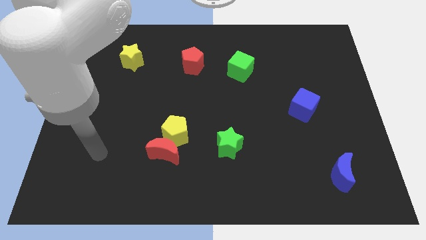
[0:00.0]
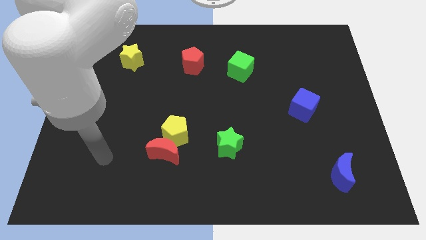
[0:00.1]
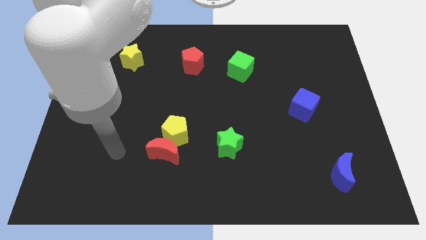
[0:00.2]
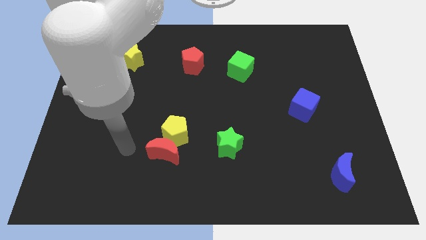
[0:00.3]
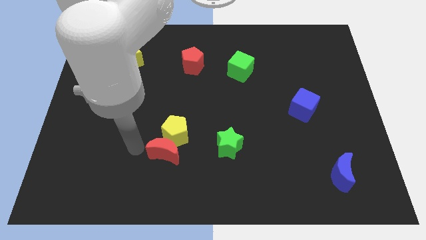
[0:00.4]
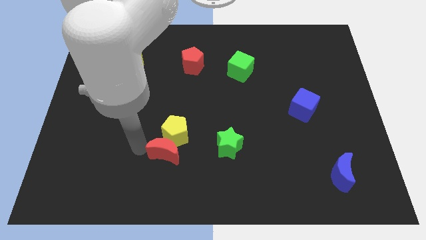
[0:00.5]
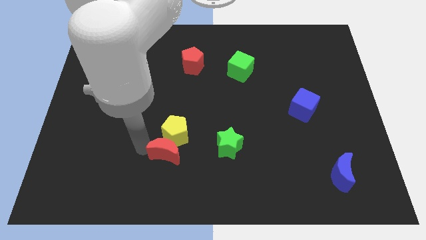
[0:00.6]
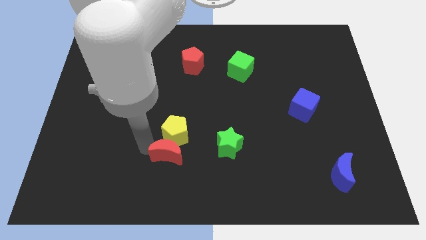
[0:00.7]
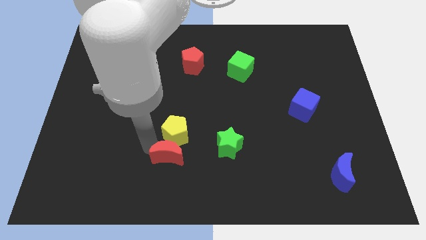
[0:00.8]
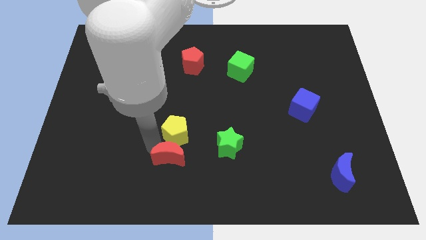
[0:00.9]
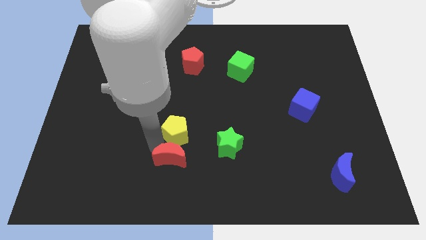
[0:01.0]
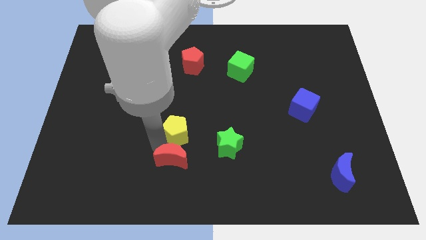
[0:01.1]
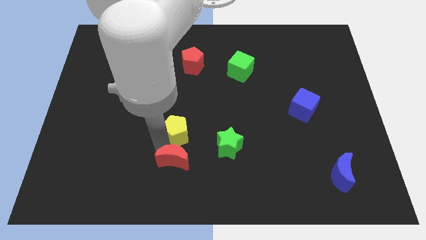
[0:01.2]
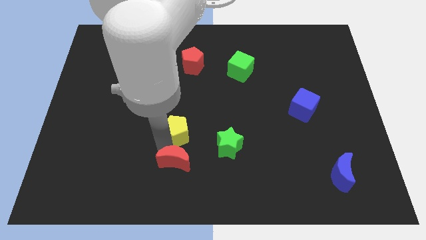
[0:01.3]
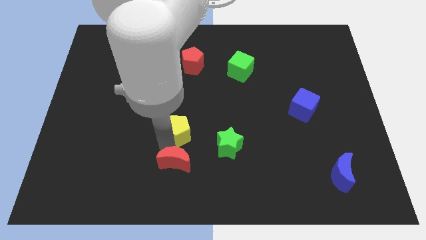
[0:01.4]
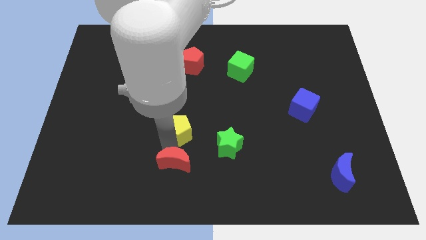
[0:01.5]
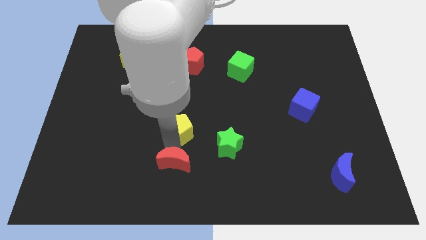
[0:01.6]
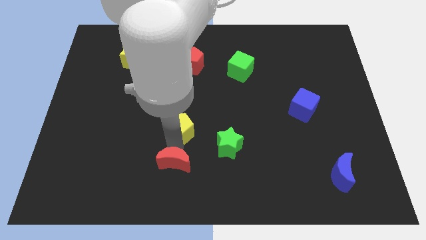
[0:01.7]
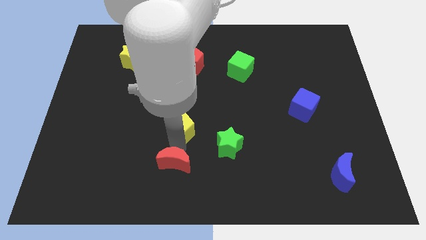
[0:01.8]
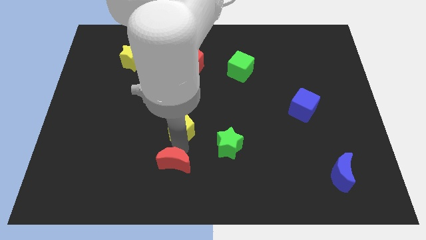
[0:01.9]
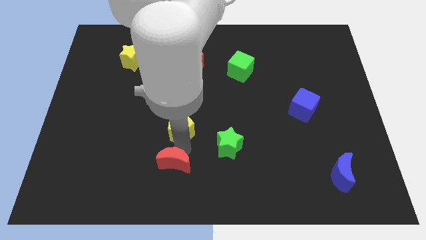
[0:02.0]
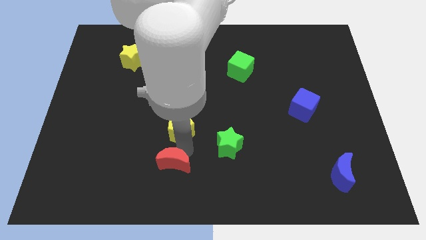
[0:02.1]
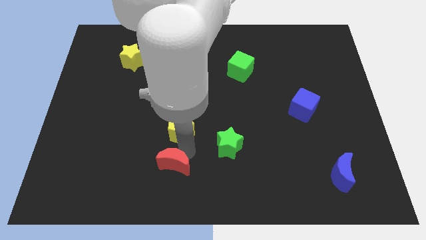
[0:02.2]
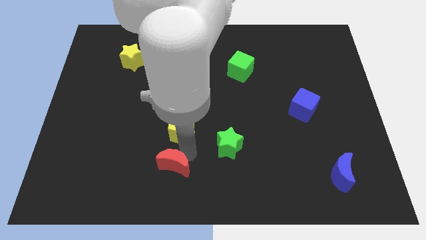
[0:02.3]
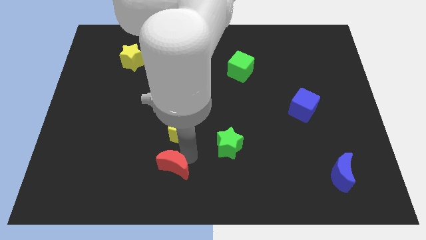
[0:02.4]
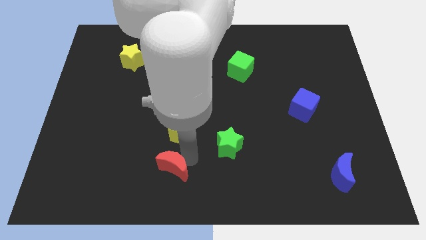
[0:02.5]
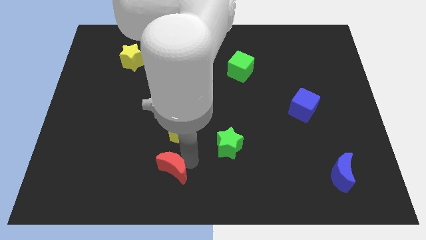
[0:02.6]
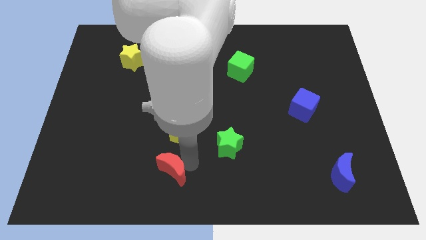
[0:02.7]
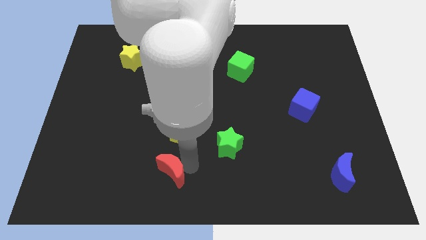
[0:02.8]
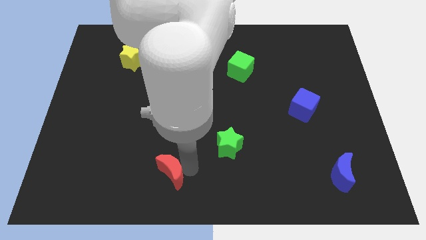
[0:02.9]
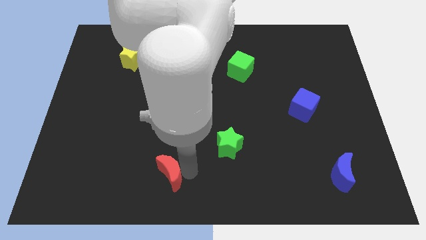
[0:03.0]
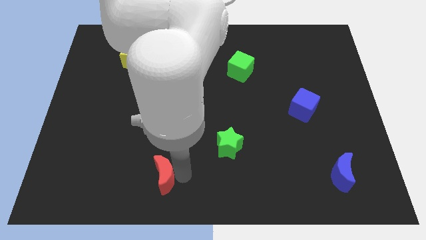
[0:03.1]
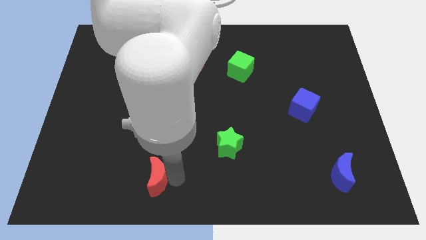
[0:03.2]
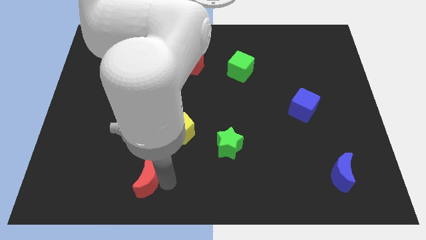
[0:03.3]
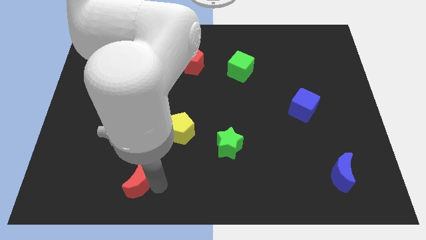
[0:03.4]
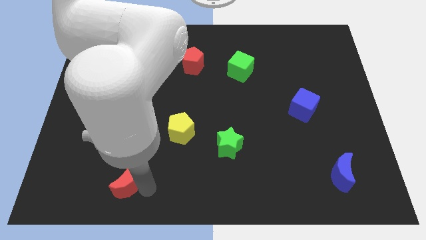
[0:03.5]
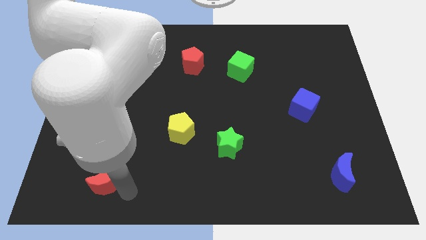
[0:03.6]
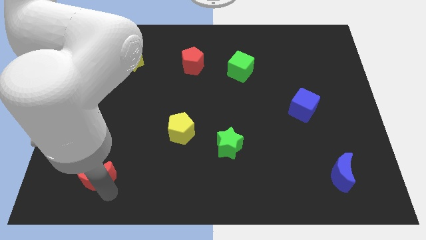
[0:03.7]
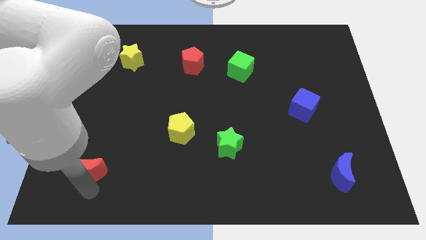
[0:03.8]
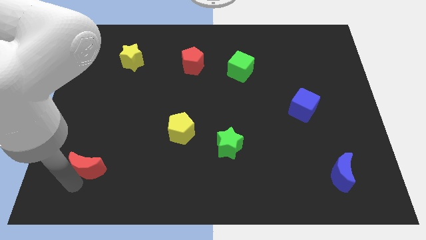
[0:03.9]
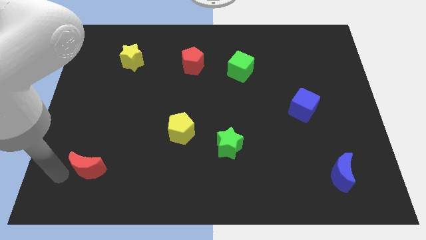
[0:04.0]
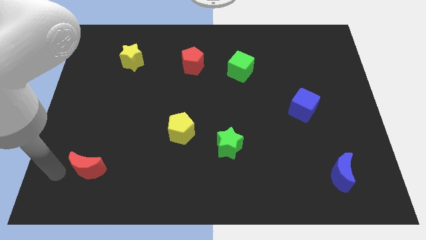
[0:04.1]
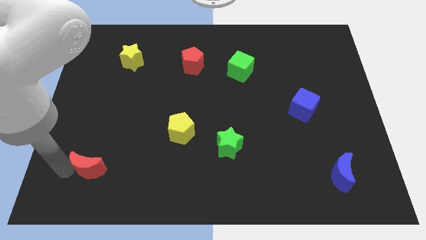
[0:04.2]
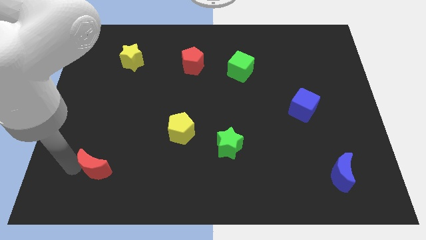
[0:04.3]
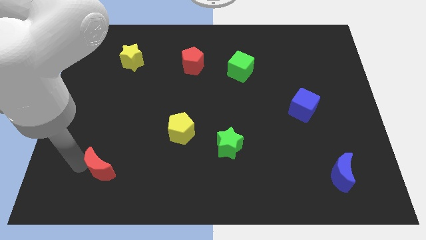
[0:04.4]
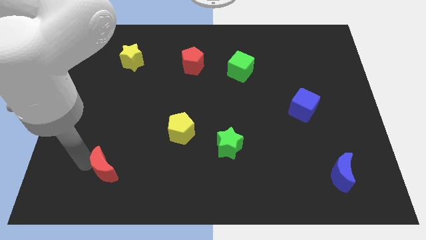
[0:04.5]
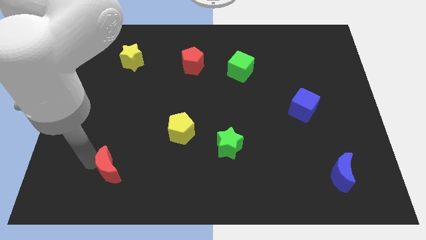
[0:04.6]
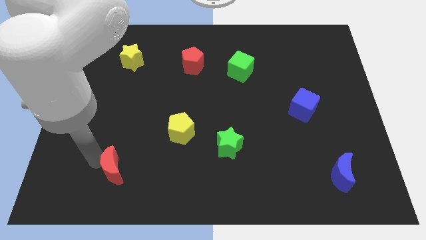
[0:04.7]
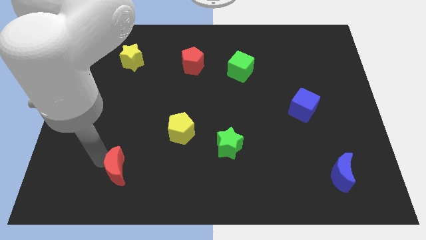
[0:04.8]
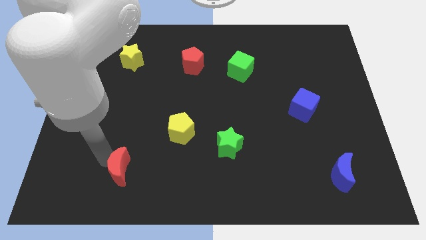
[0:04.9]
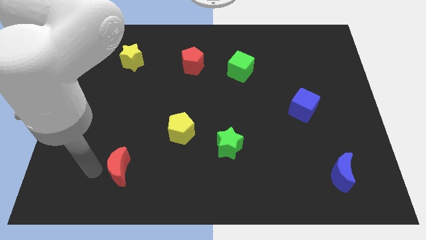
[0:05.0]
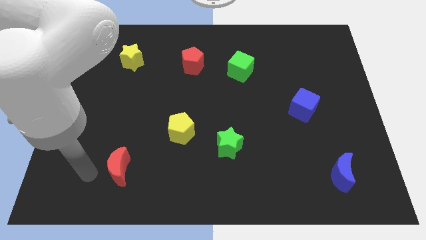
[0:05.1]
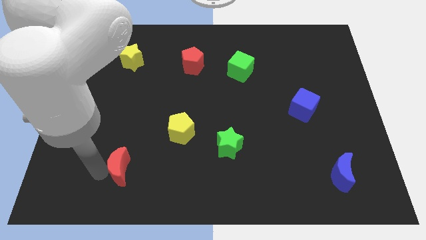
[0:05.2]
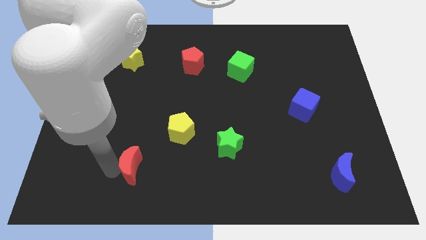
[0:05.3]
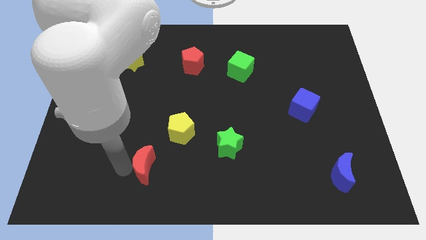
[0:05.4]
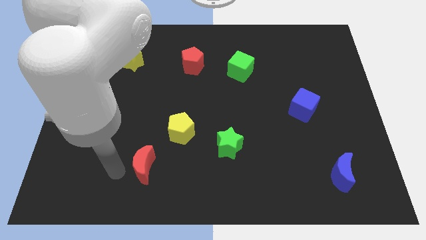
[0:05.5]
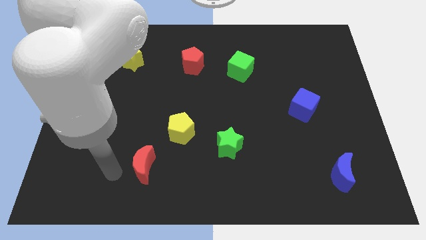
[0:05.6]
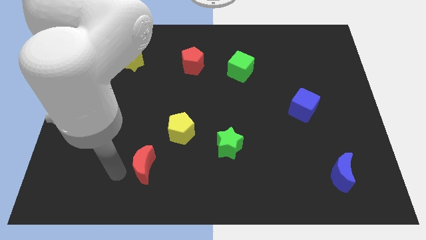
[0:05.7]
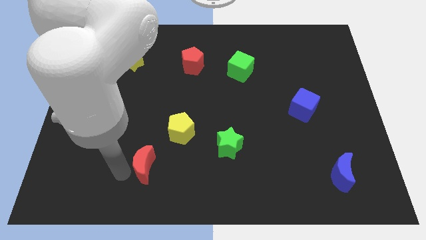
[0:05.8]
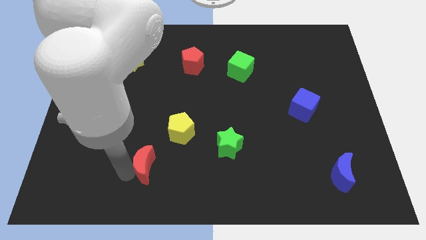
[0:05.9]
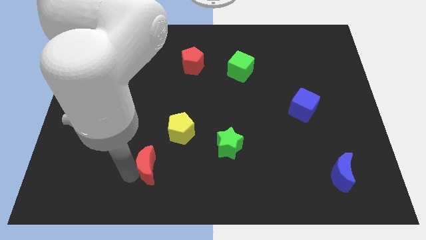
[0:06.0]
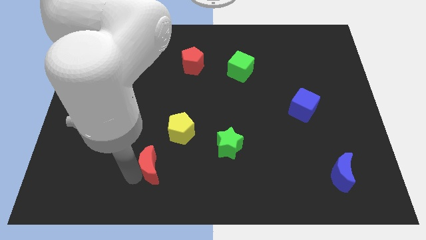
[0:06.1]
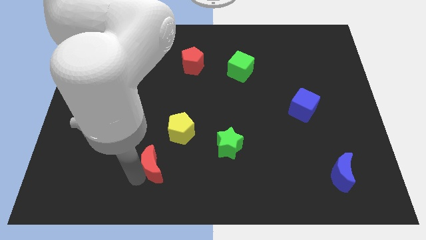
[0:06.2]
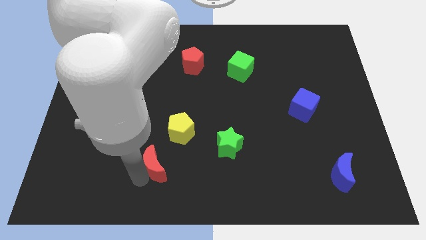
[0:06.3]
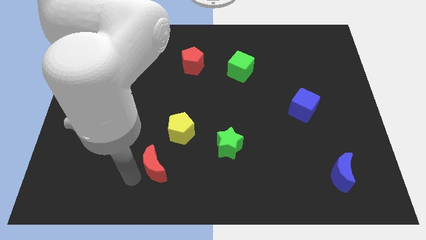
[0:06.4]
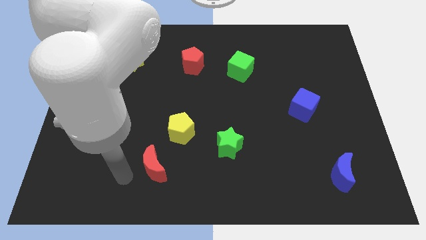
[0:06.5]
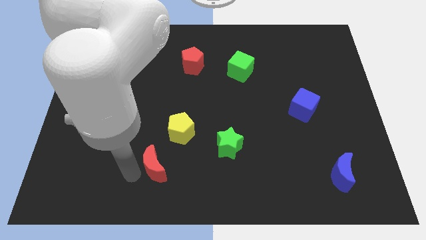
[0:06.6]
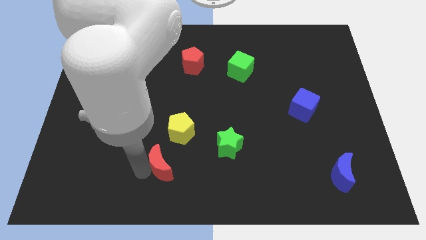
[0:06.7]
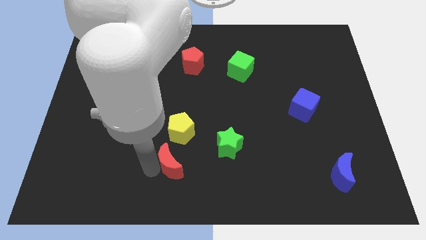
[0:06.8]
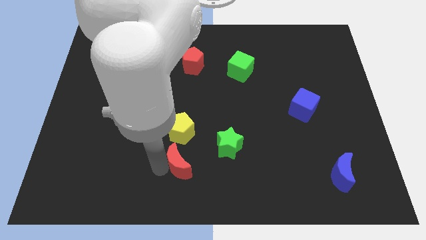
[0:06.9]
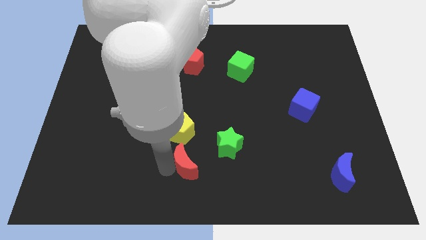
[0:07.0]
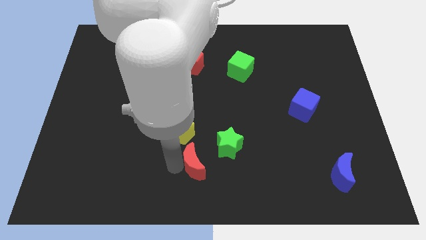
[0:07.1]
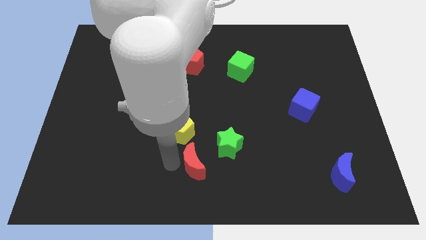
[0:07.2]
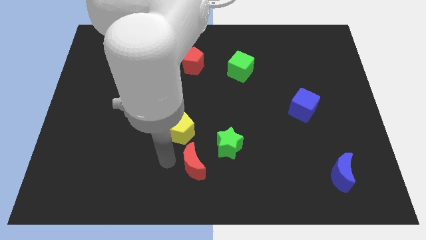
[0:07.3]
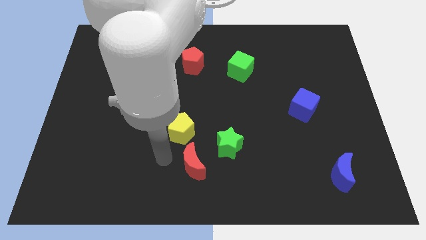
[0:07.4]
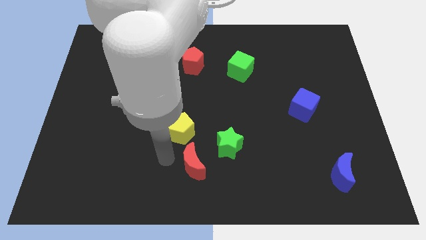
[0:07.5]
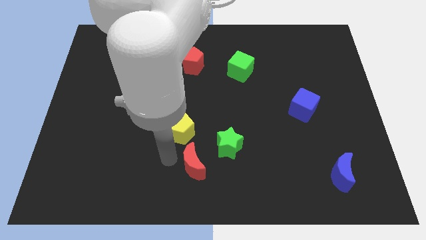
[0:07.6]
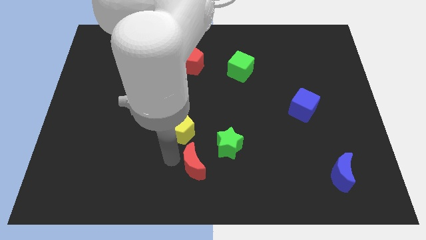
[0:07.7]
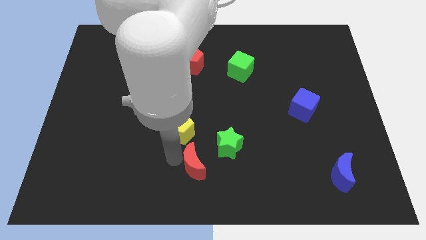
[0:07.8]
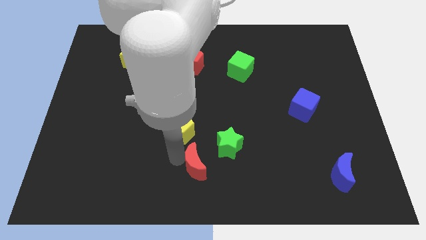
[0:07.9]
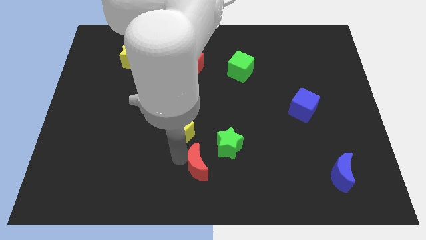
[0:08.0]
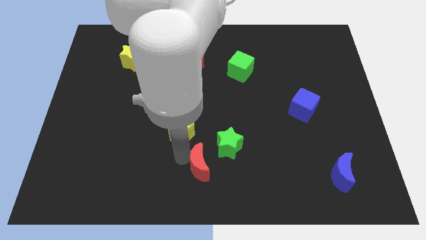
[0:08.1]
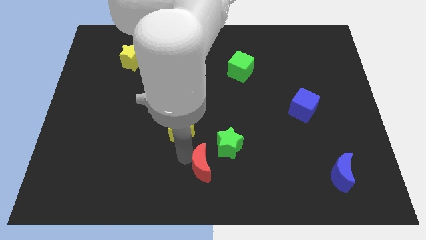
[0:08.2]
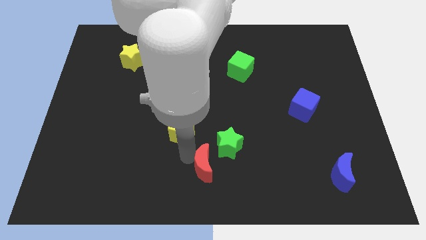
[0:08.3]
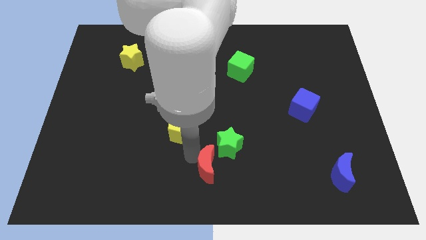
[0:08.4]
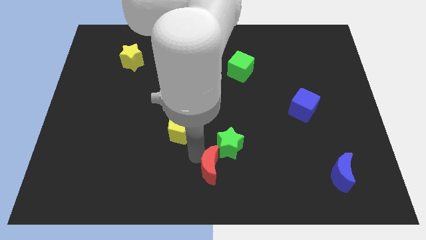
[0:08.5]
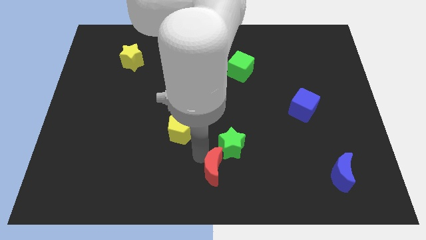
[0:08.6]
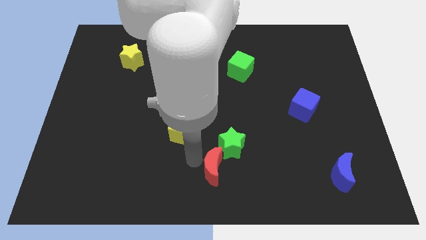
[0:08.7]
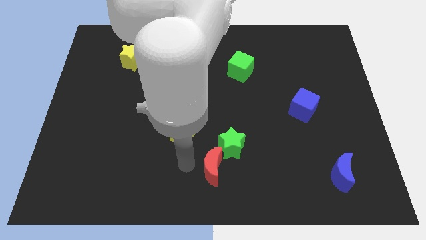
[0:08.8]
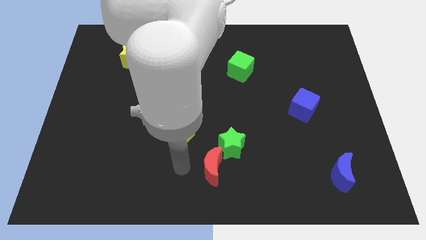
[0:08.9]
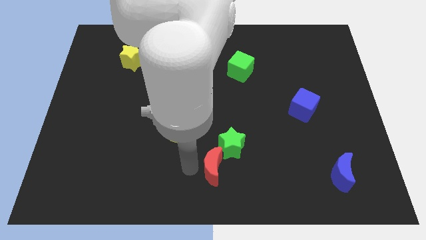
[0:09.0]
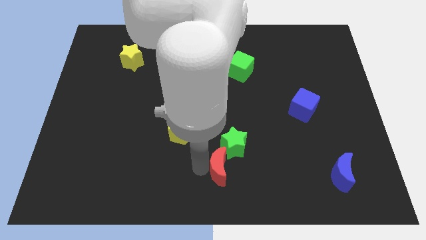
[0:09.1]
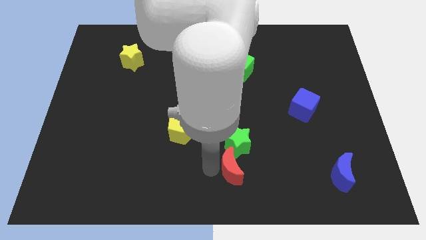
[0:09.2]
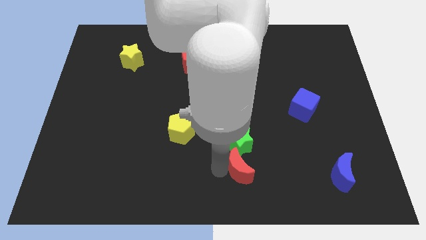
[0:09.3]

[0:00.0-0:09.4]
push the red moon to the bottom right of the green star
